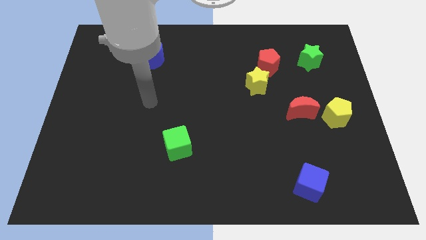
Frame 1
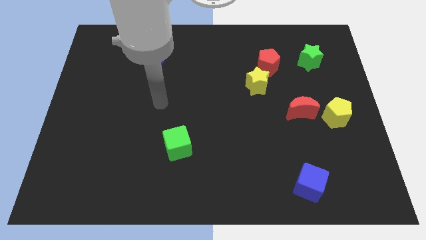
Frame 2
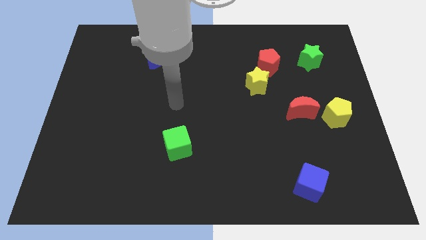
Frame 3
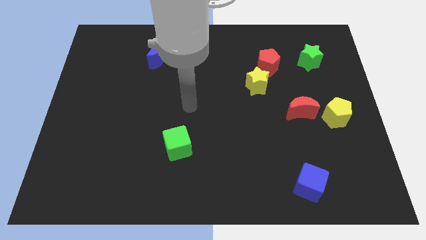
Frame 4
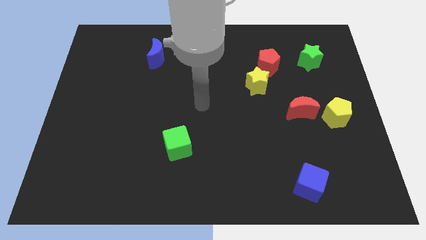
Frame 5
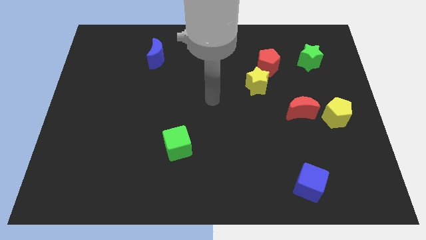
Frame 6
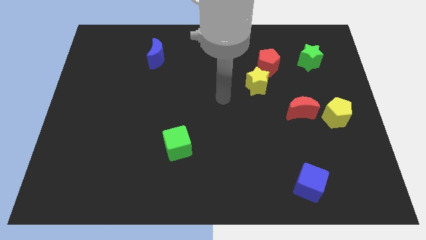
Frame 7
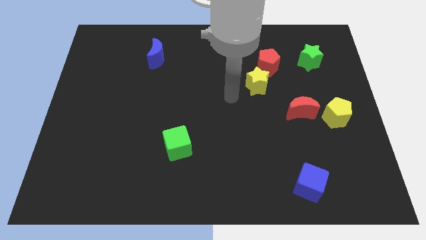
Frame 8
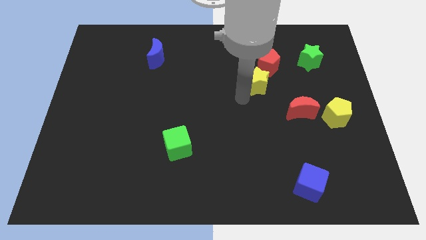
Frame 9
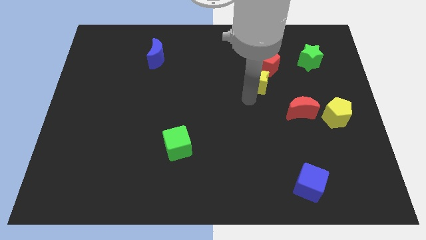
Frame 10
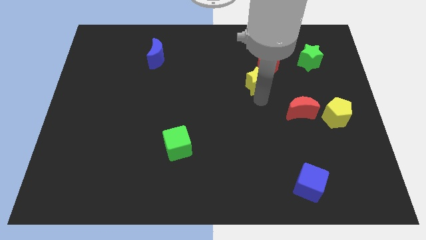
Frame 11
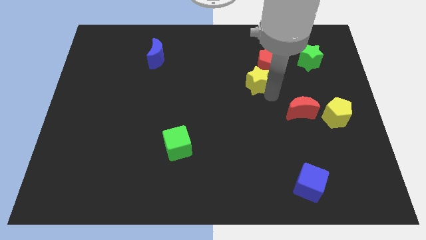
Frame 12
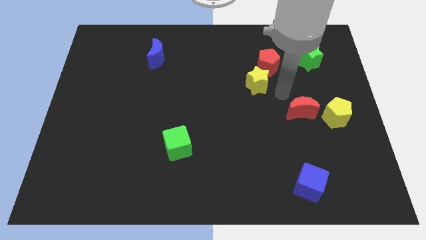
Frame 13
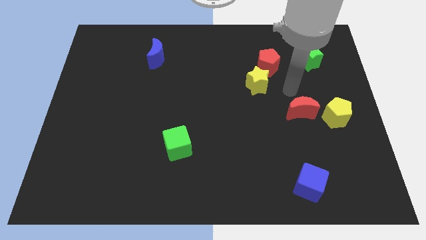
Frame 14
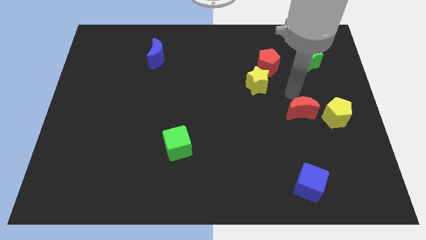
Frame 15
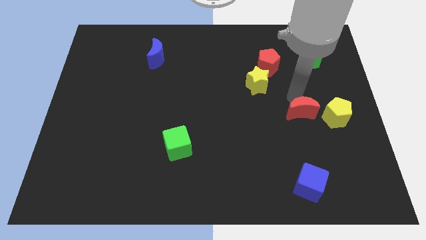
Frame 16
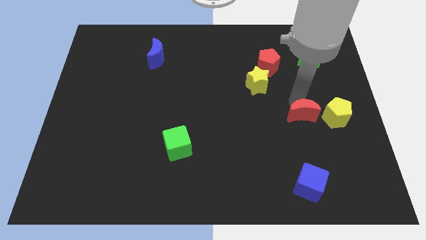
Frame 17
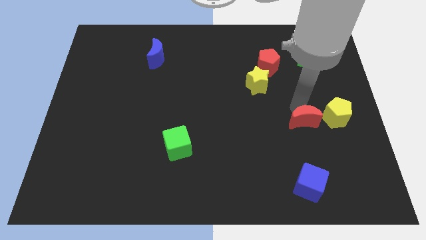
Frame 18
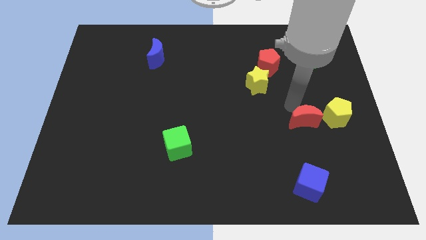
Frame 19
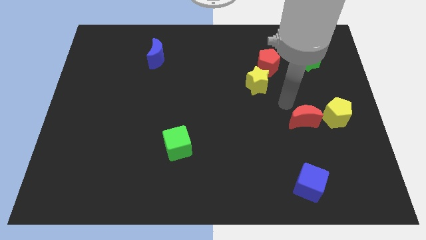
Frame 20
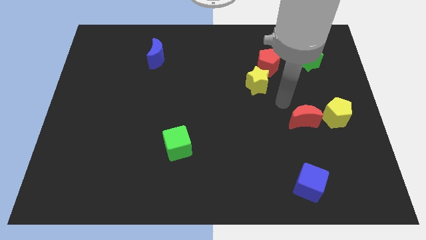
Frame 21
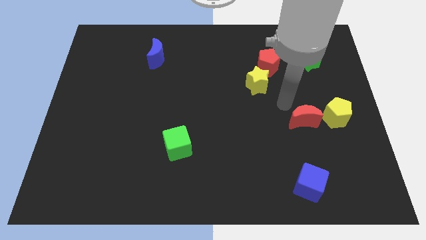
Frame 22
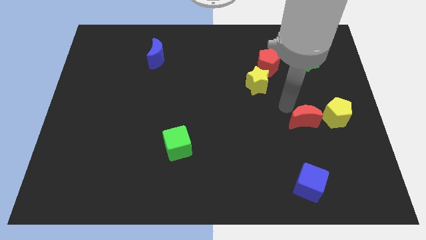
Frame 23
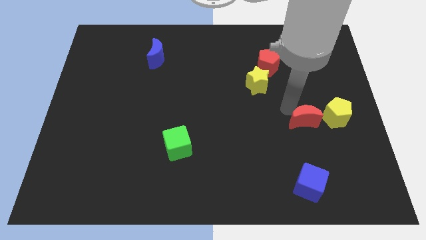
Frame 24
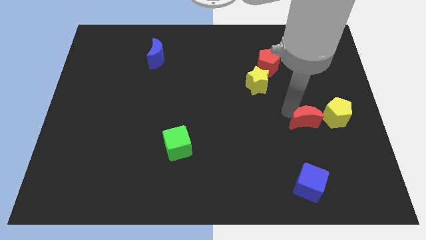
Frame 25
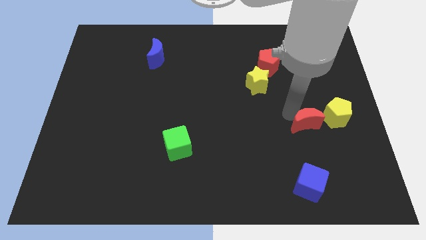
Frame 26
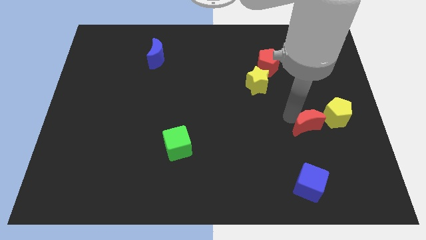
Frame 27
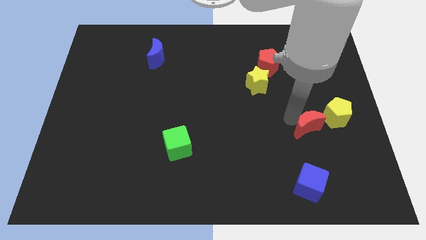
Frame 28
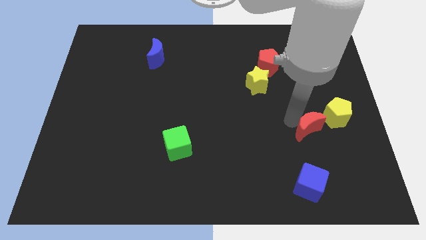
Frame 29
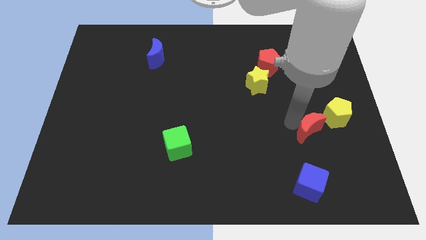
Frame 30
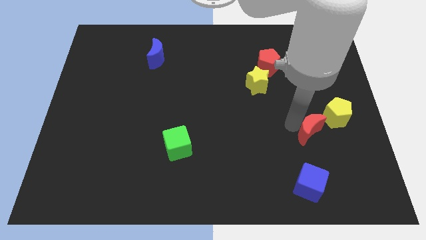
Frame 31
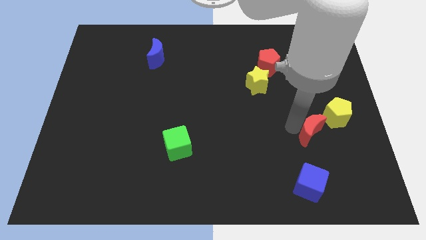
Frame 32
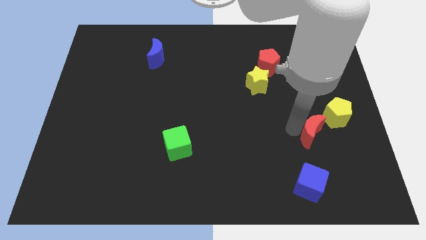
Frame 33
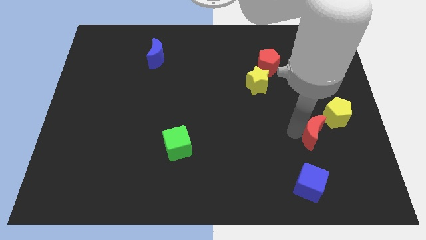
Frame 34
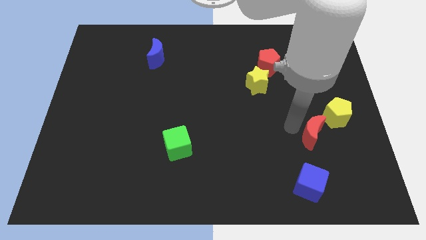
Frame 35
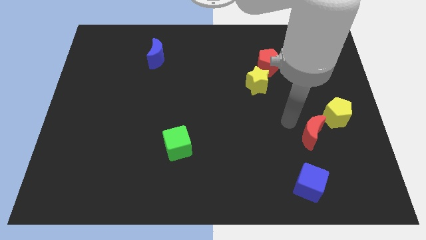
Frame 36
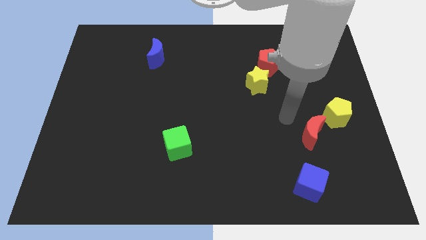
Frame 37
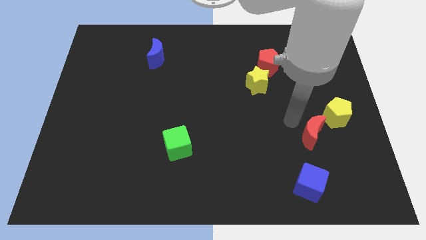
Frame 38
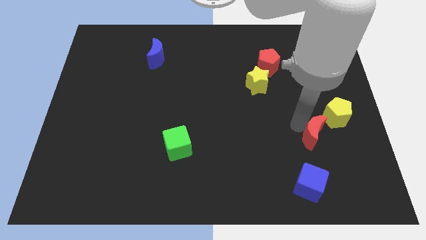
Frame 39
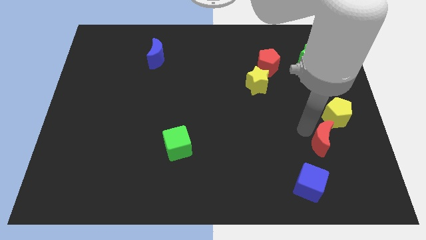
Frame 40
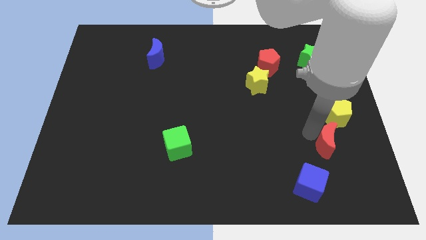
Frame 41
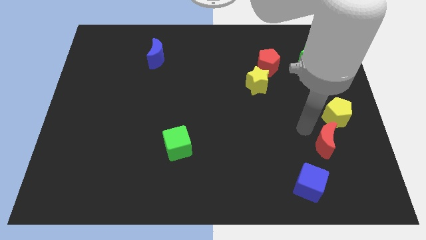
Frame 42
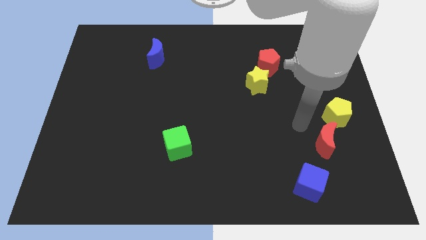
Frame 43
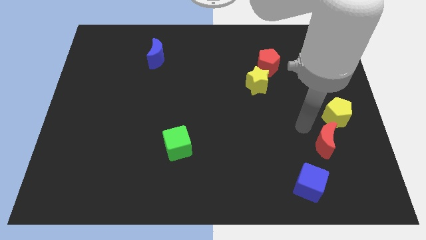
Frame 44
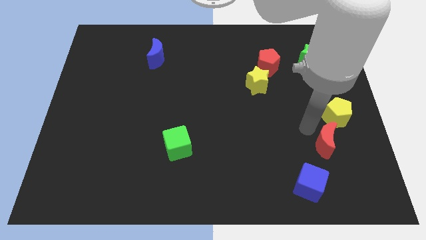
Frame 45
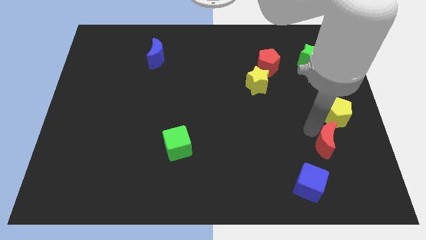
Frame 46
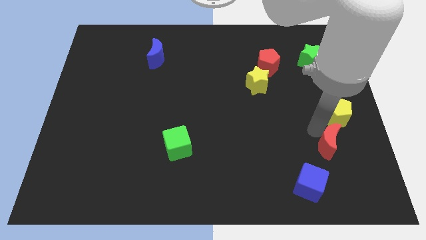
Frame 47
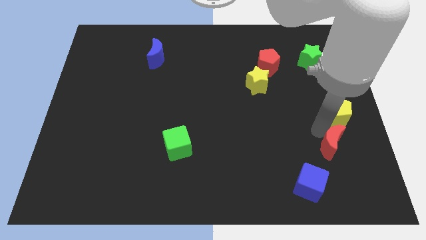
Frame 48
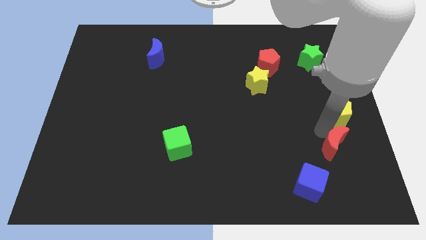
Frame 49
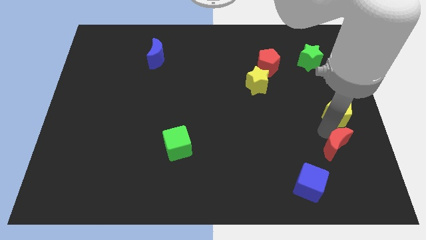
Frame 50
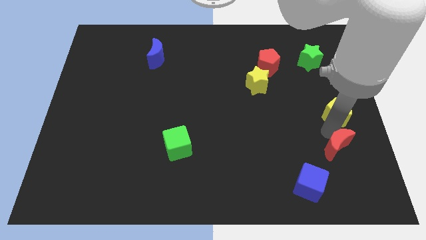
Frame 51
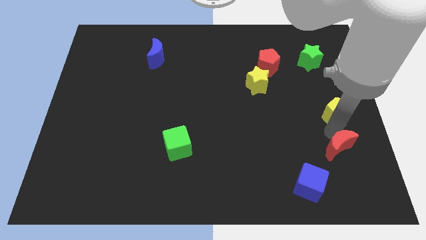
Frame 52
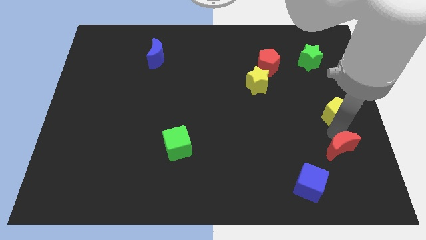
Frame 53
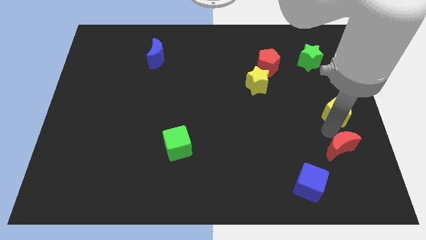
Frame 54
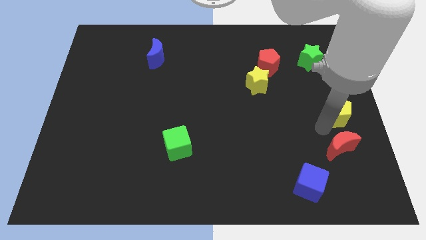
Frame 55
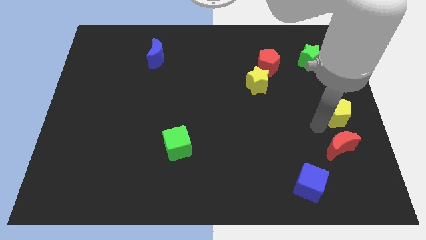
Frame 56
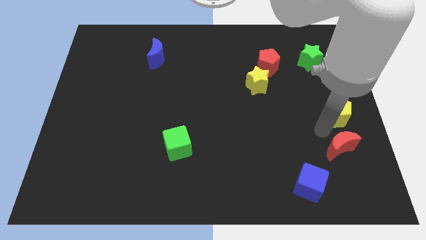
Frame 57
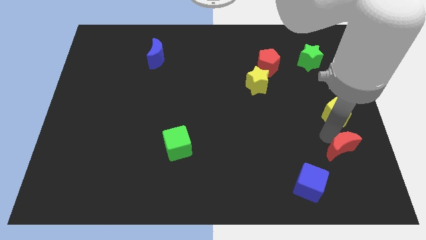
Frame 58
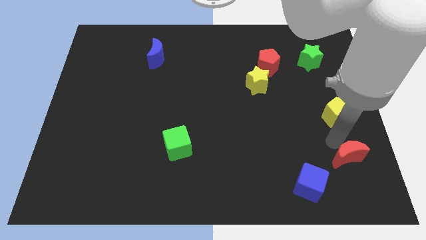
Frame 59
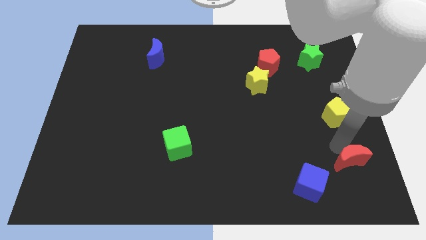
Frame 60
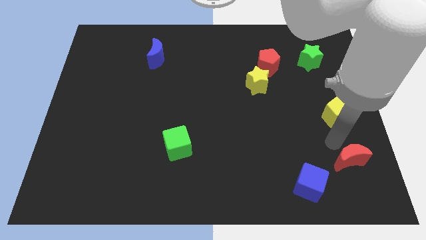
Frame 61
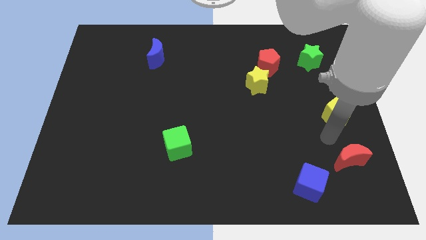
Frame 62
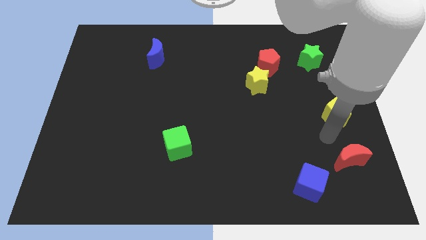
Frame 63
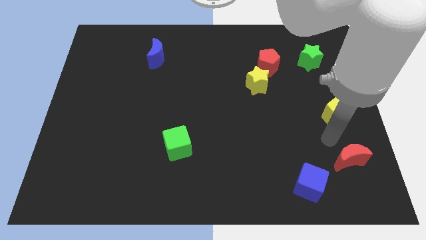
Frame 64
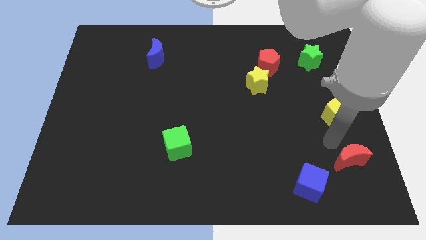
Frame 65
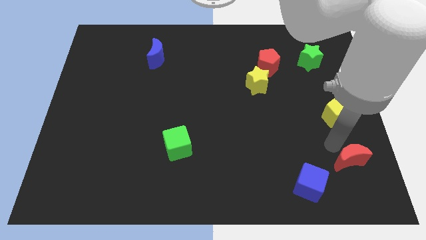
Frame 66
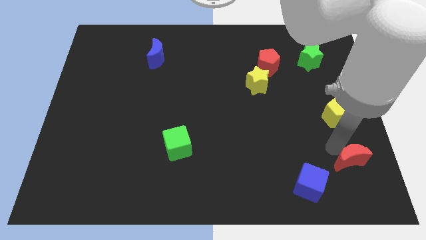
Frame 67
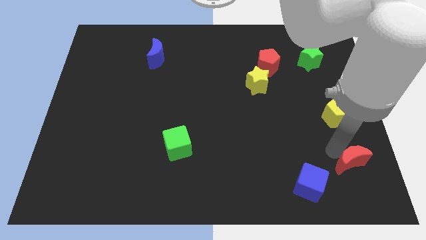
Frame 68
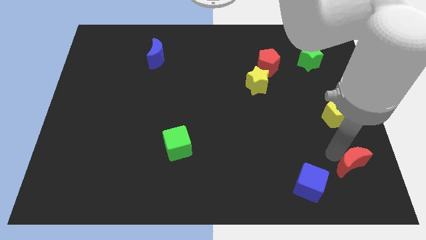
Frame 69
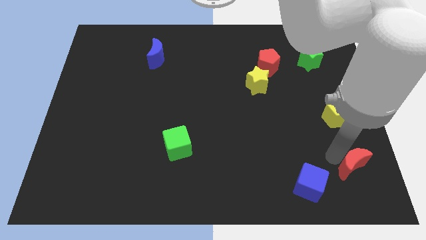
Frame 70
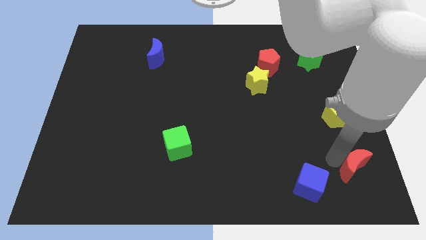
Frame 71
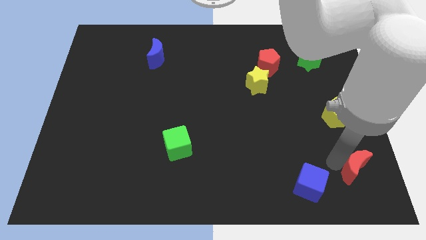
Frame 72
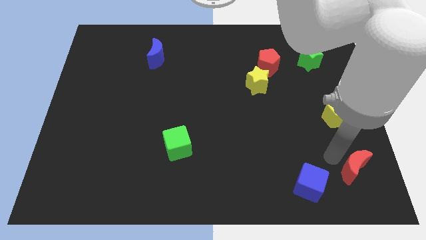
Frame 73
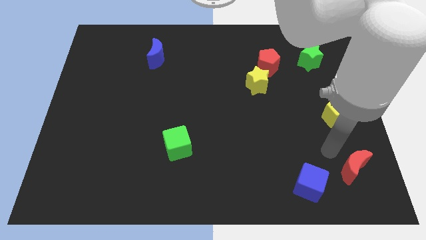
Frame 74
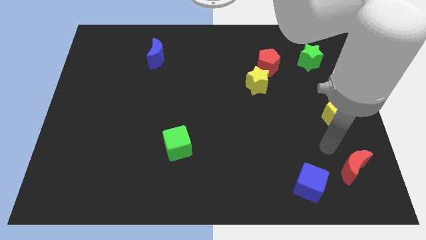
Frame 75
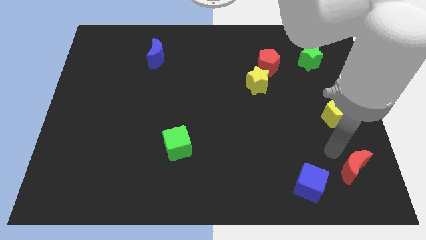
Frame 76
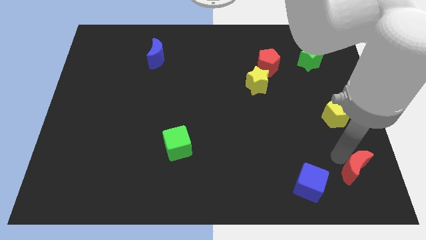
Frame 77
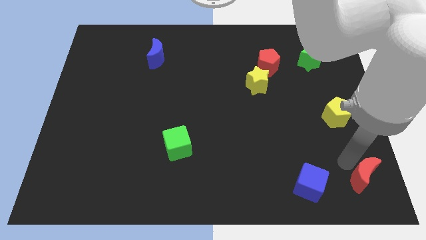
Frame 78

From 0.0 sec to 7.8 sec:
slide the red moon to the bottom right of the board
